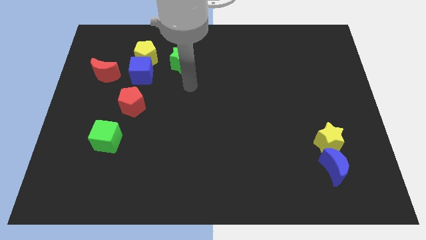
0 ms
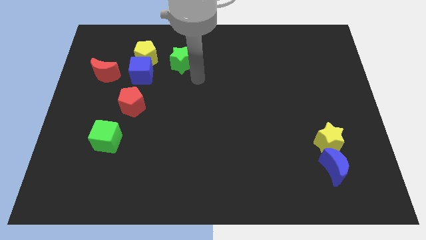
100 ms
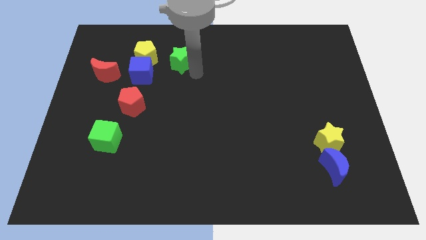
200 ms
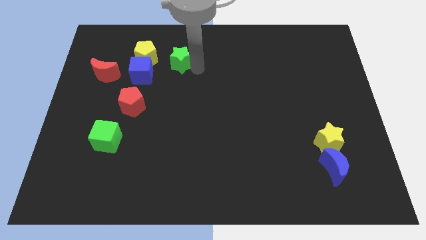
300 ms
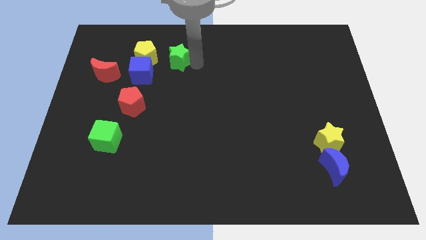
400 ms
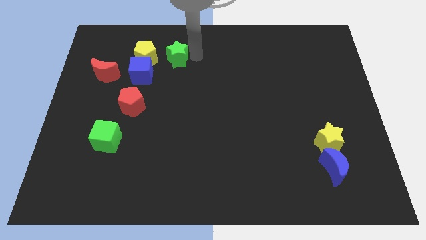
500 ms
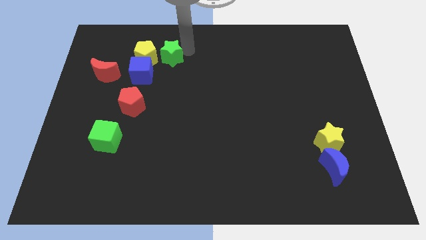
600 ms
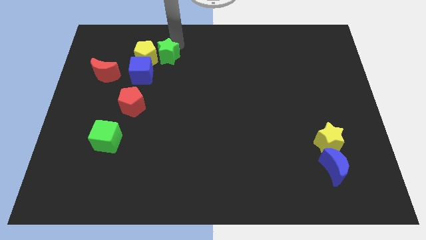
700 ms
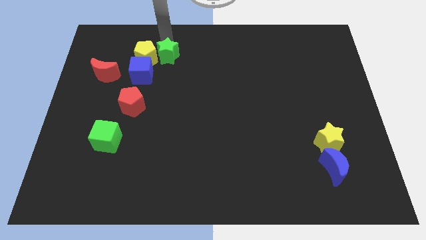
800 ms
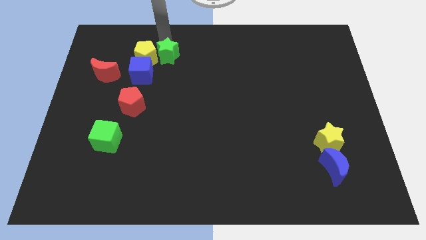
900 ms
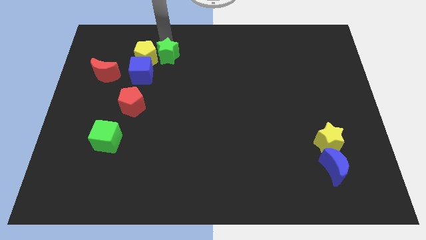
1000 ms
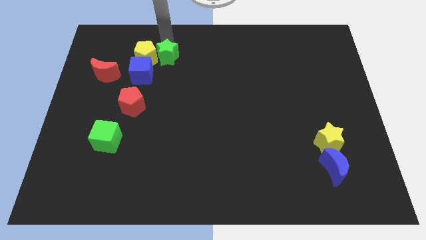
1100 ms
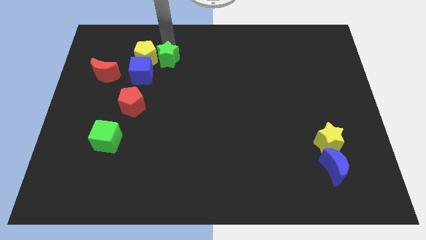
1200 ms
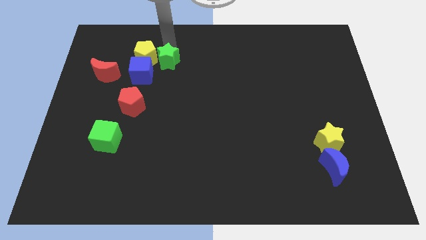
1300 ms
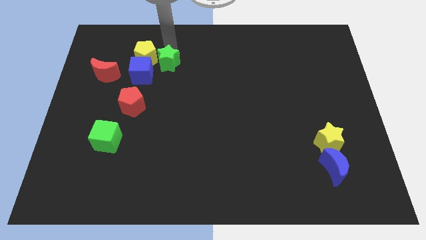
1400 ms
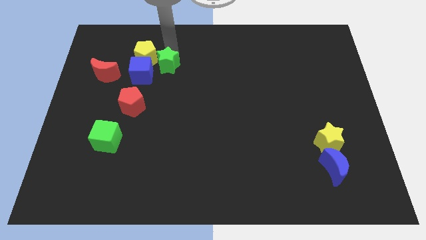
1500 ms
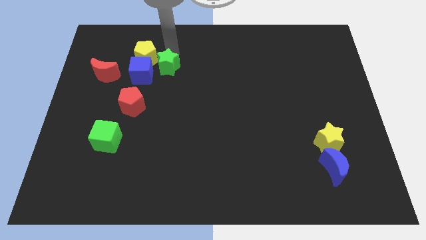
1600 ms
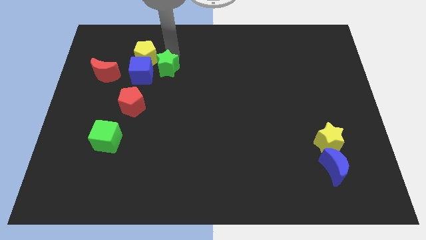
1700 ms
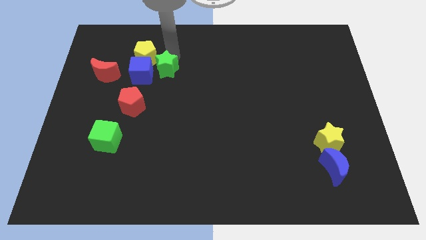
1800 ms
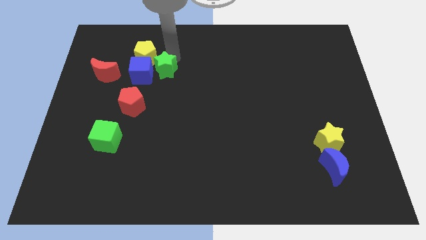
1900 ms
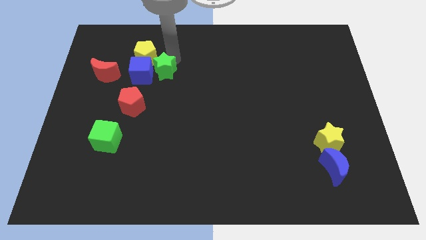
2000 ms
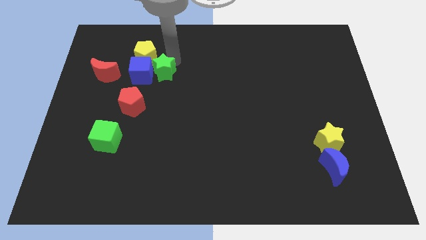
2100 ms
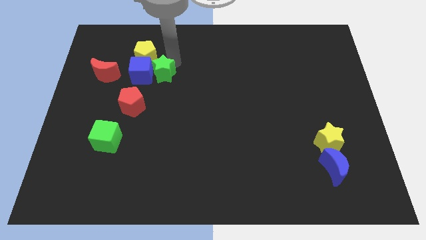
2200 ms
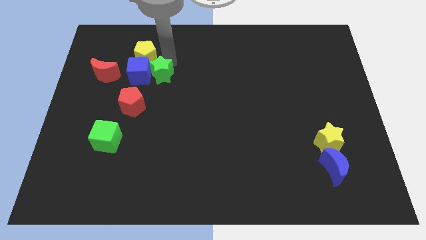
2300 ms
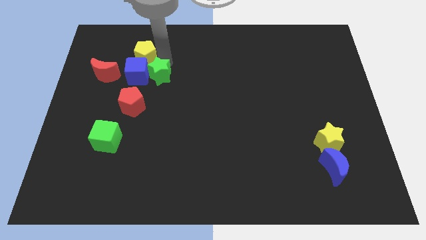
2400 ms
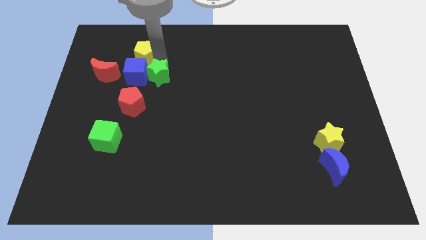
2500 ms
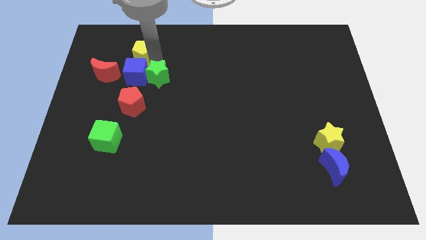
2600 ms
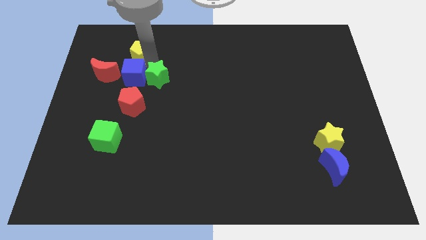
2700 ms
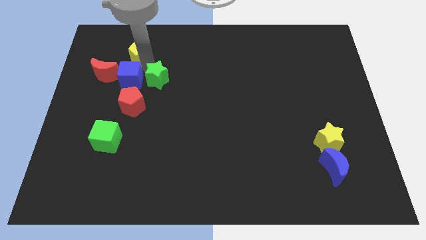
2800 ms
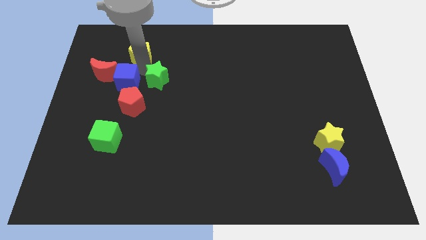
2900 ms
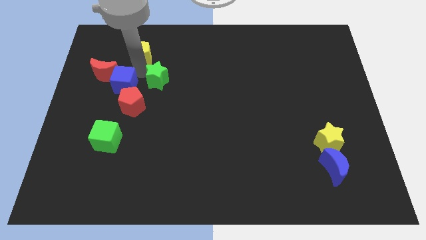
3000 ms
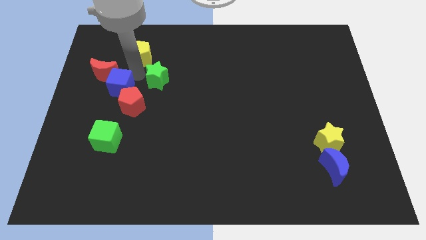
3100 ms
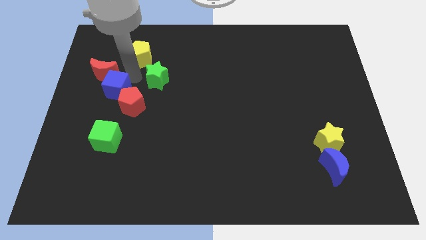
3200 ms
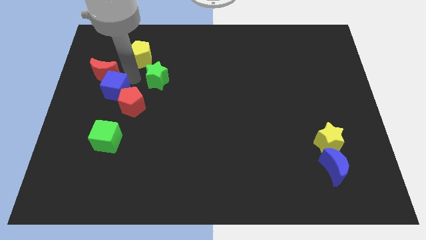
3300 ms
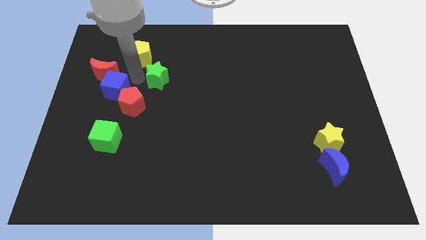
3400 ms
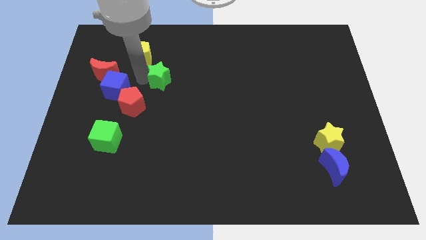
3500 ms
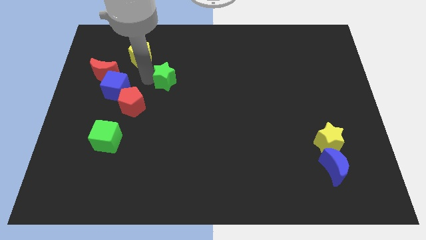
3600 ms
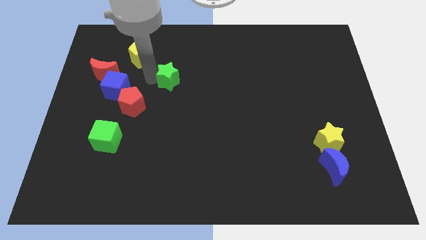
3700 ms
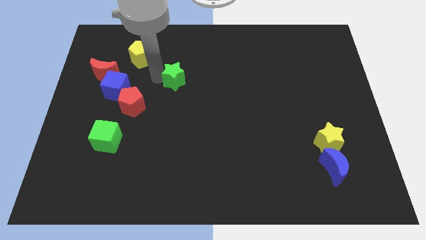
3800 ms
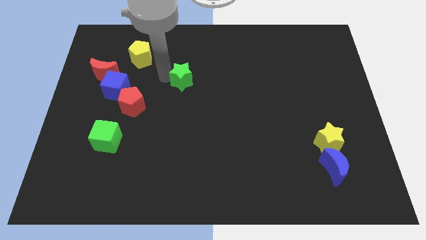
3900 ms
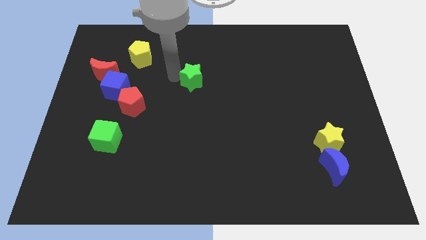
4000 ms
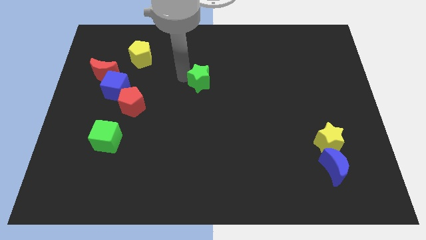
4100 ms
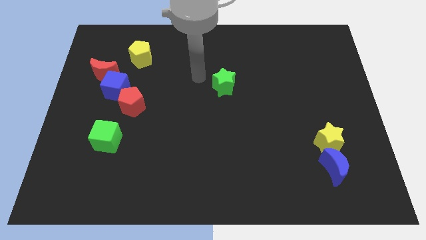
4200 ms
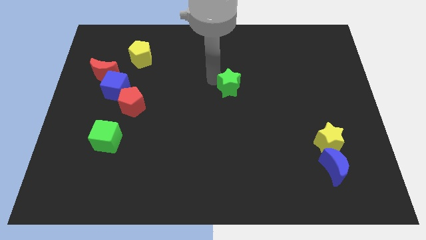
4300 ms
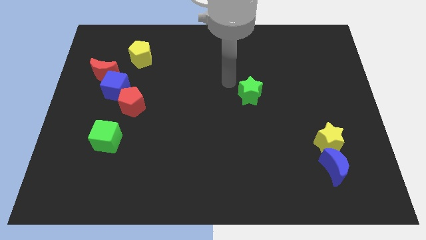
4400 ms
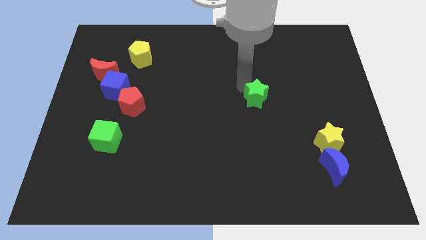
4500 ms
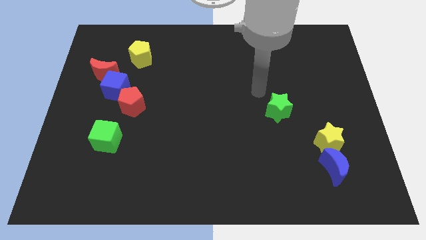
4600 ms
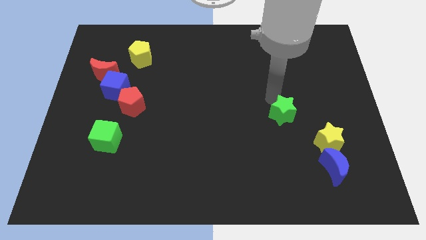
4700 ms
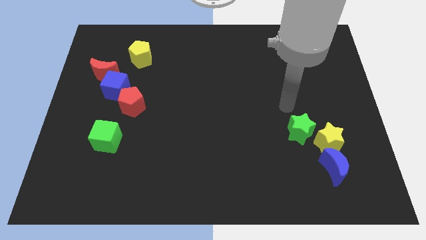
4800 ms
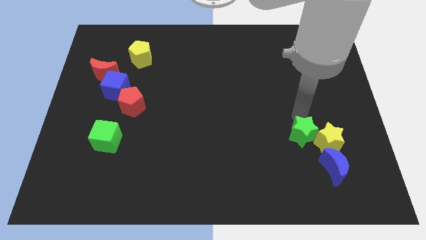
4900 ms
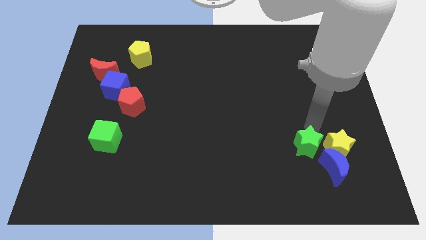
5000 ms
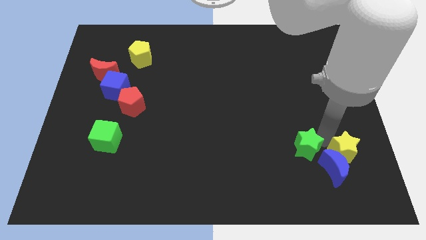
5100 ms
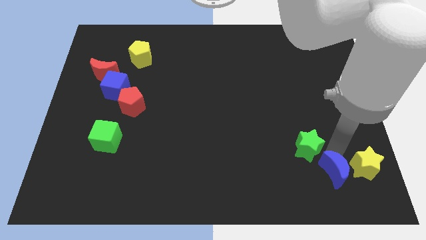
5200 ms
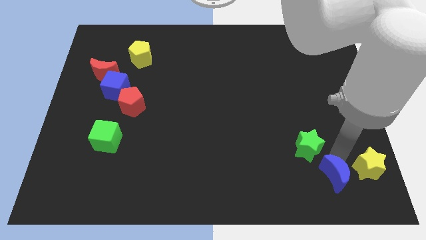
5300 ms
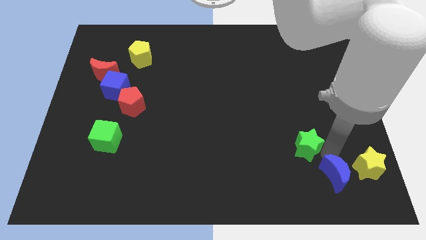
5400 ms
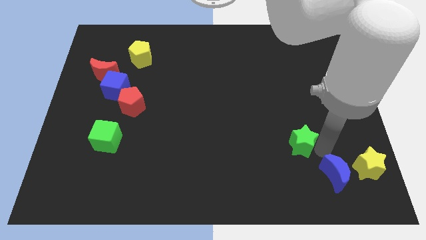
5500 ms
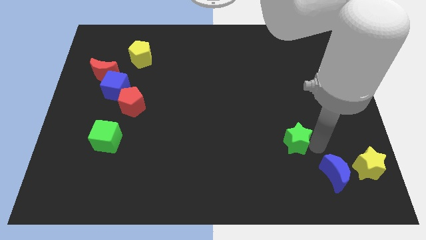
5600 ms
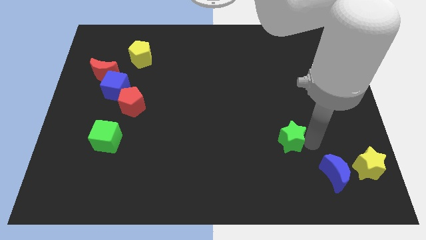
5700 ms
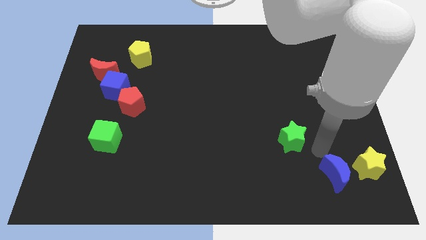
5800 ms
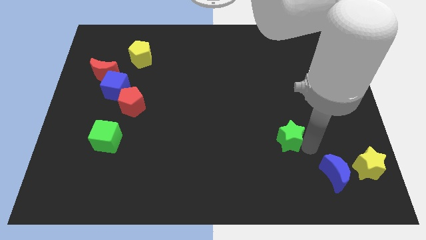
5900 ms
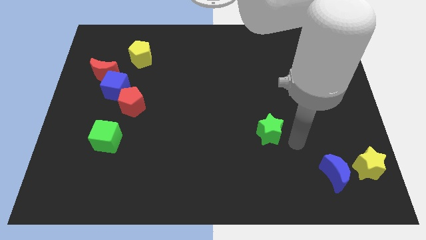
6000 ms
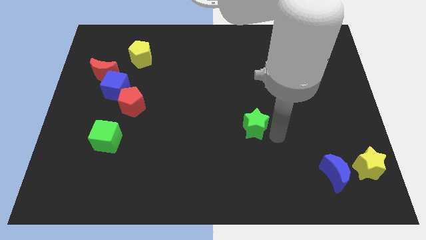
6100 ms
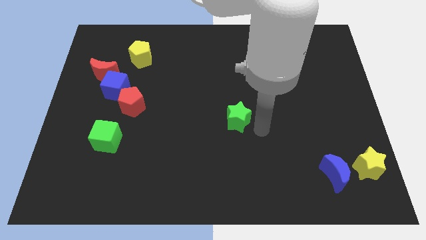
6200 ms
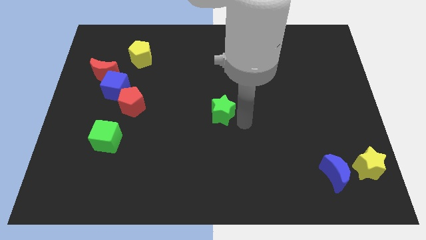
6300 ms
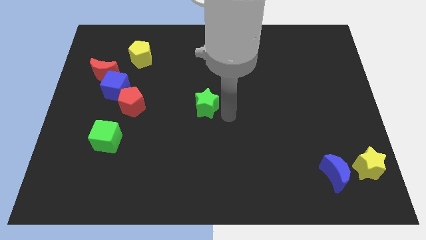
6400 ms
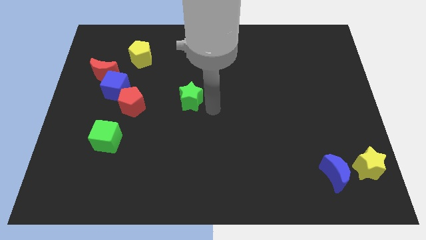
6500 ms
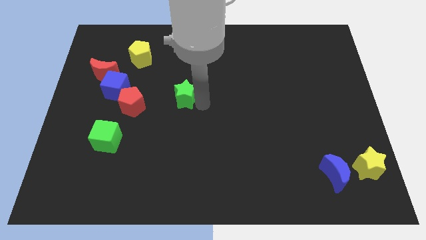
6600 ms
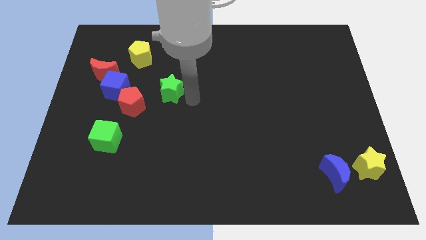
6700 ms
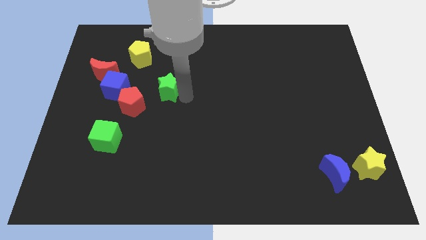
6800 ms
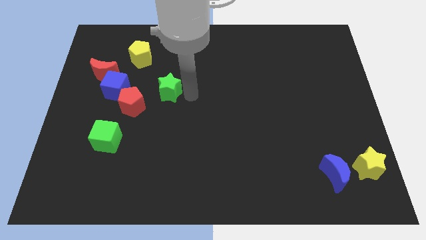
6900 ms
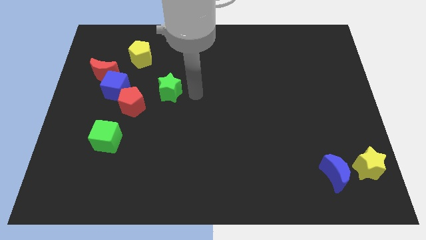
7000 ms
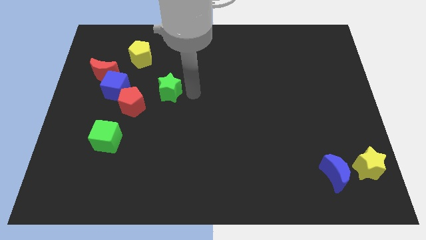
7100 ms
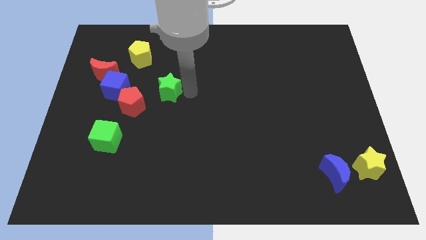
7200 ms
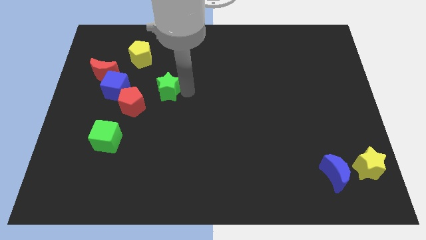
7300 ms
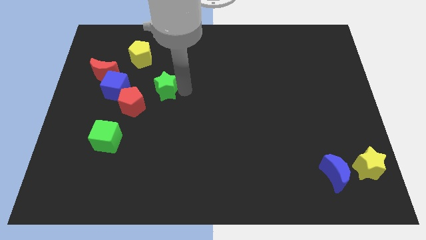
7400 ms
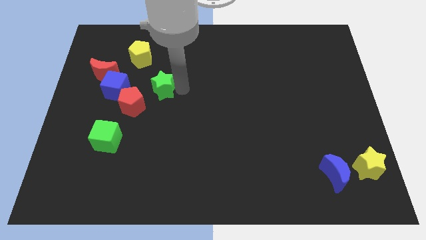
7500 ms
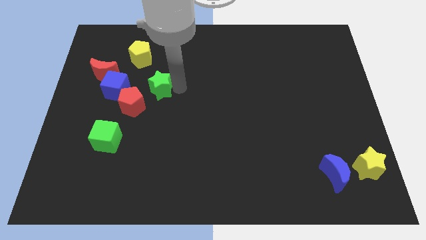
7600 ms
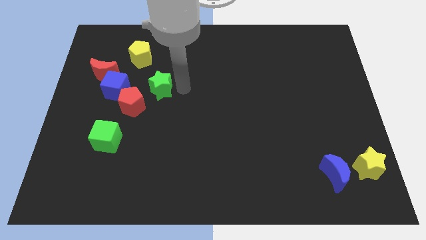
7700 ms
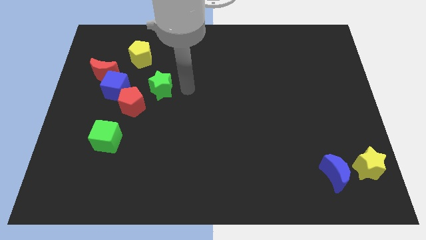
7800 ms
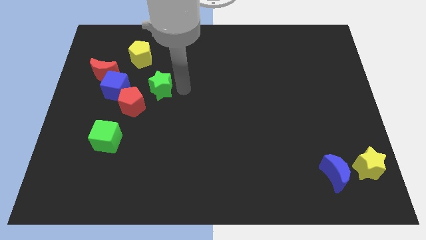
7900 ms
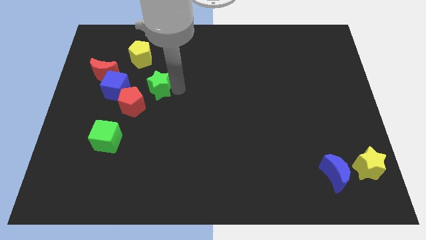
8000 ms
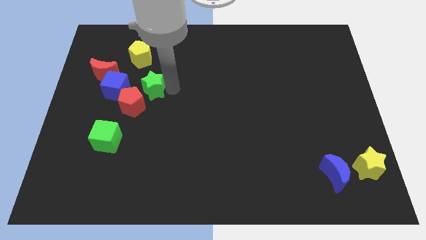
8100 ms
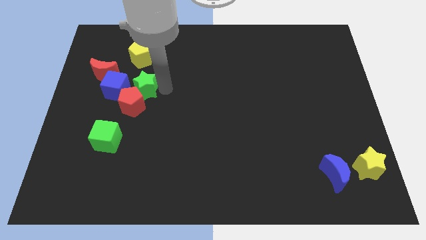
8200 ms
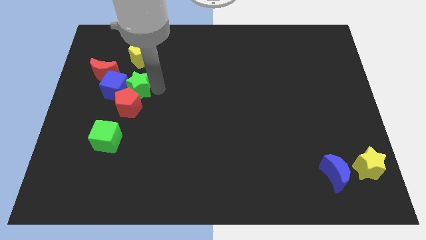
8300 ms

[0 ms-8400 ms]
slide the green star to the bottom right of the red moon
